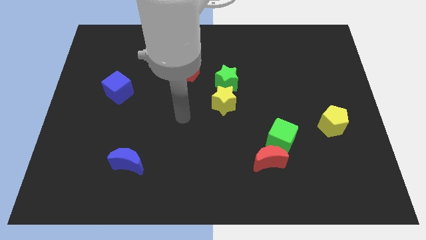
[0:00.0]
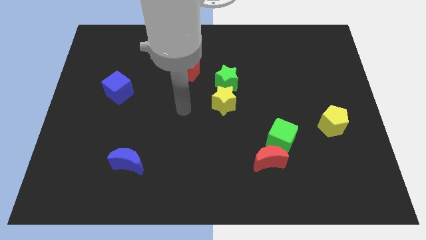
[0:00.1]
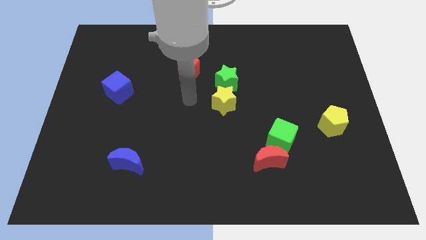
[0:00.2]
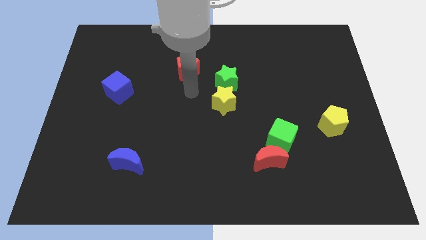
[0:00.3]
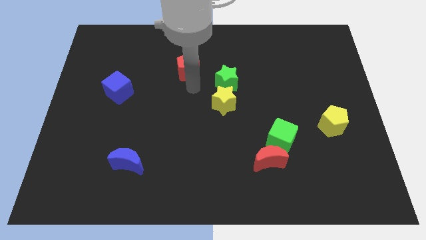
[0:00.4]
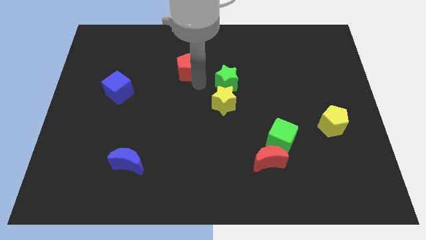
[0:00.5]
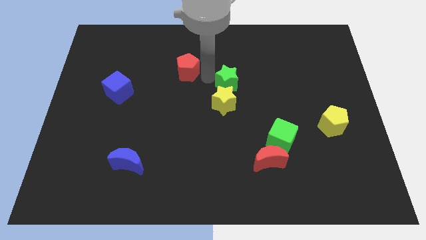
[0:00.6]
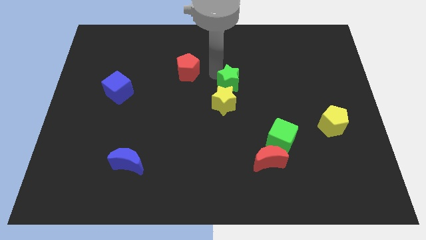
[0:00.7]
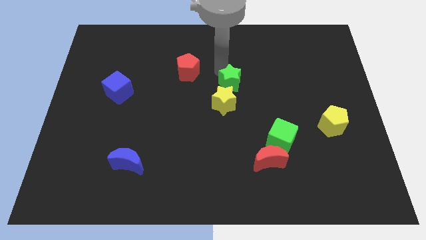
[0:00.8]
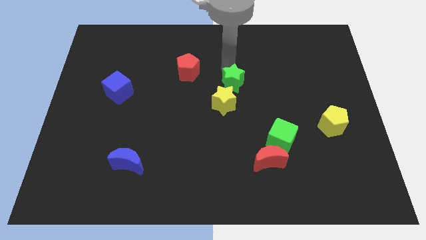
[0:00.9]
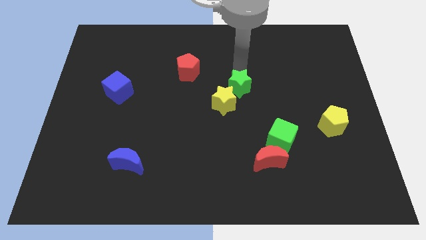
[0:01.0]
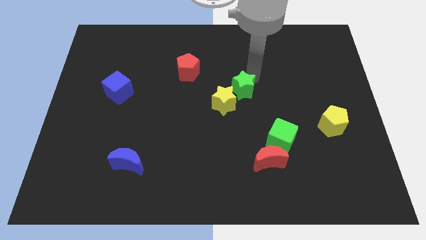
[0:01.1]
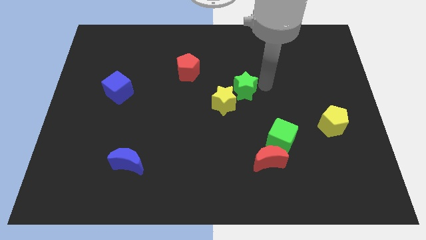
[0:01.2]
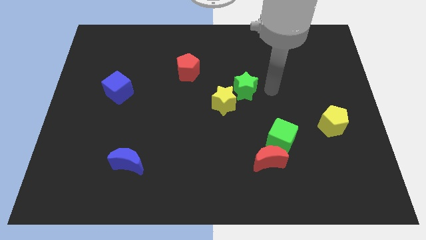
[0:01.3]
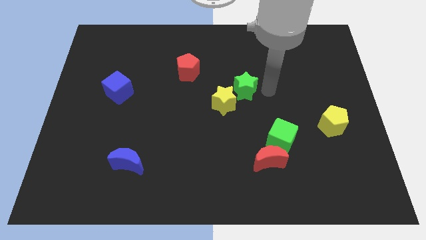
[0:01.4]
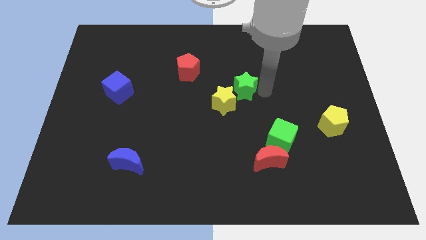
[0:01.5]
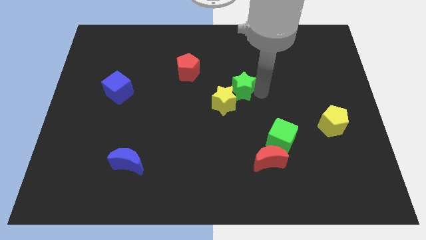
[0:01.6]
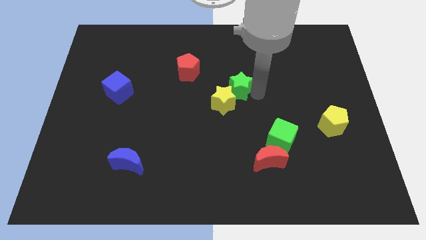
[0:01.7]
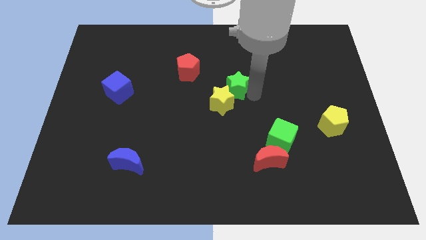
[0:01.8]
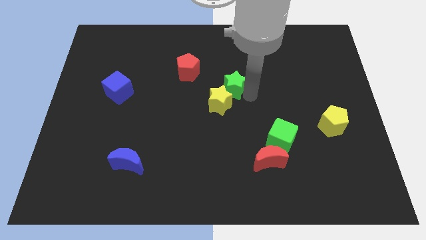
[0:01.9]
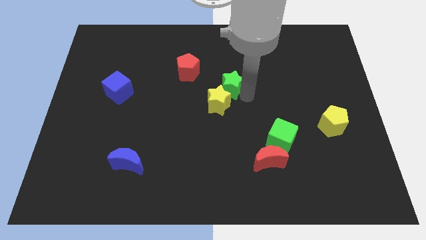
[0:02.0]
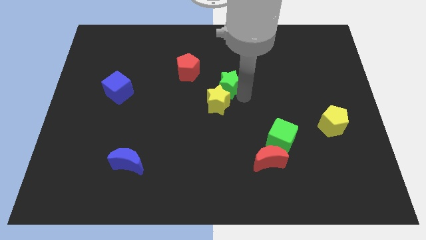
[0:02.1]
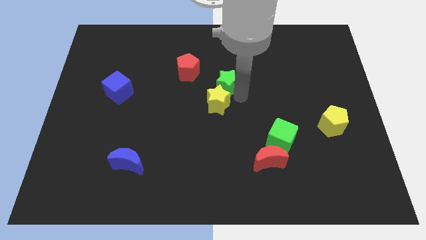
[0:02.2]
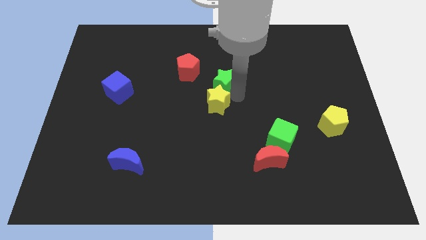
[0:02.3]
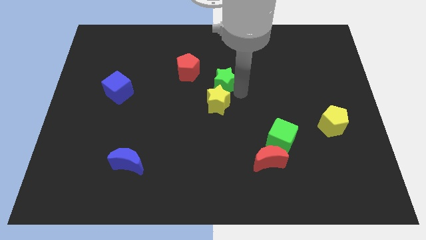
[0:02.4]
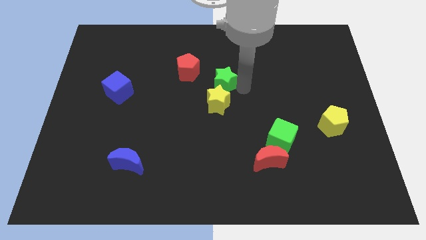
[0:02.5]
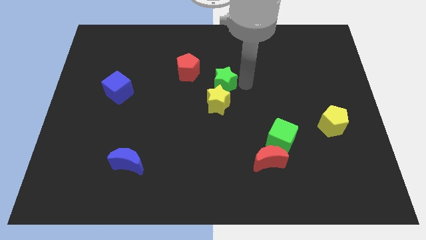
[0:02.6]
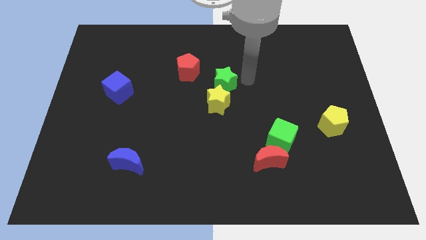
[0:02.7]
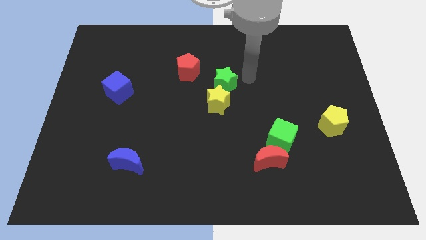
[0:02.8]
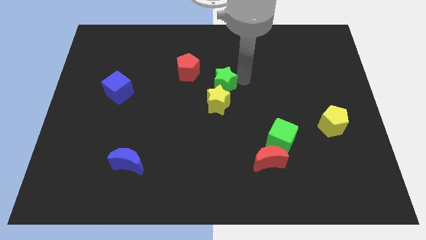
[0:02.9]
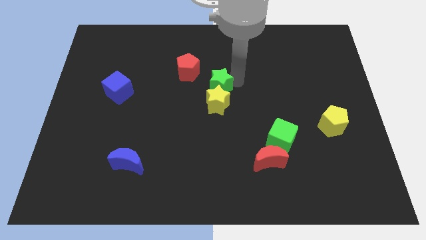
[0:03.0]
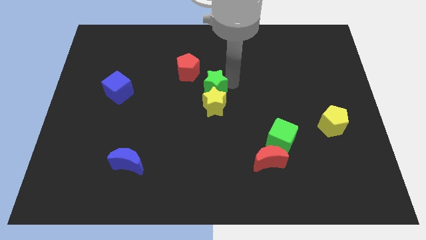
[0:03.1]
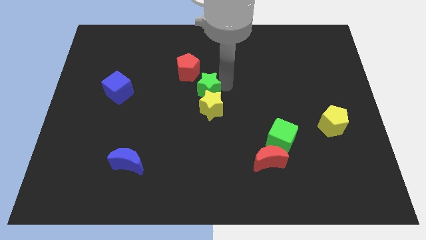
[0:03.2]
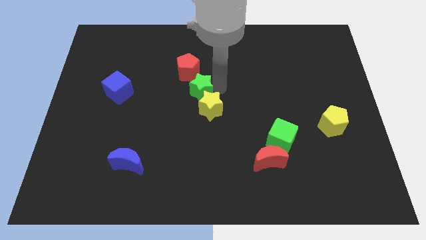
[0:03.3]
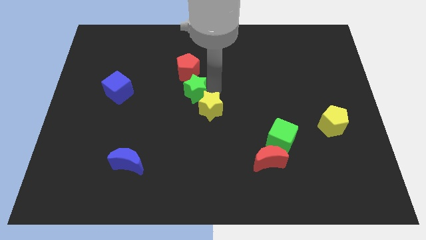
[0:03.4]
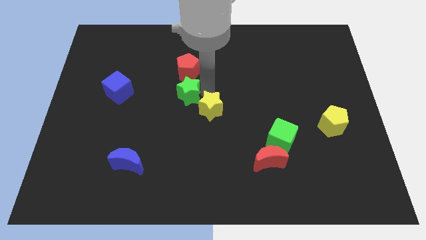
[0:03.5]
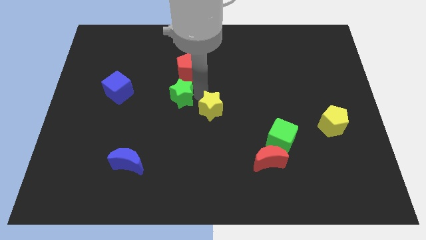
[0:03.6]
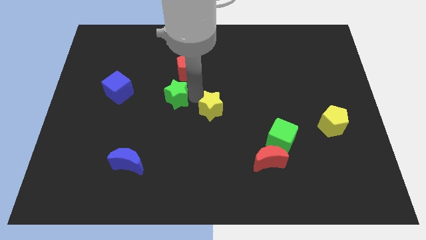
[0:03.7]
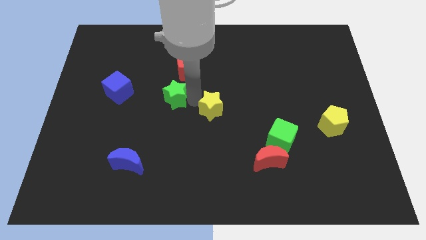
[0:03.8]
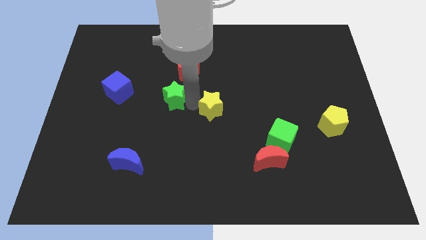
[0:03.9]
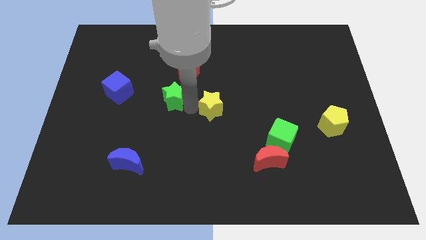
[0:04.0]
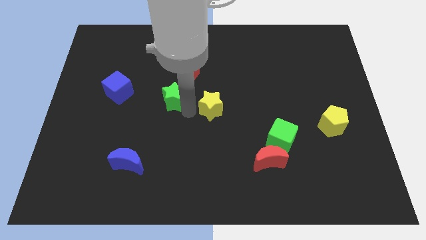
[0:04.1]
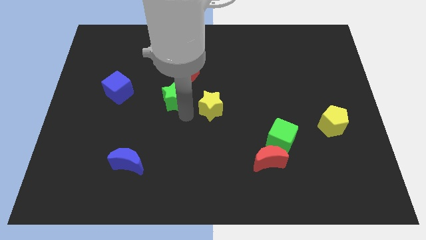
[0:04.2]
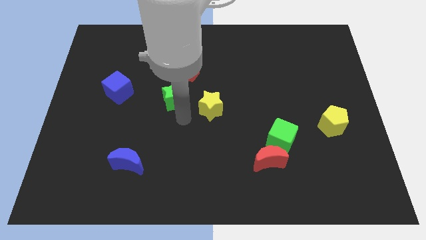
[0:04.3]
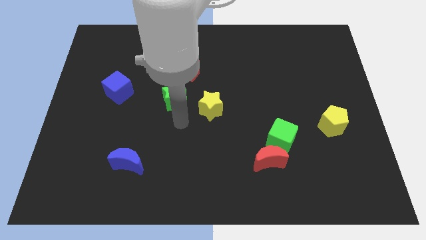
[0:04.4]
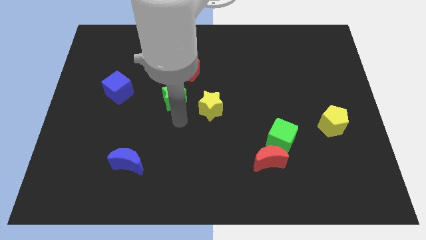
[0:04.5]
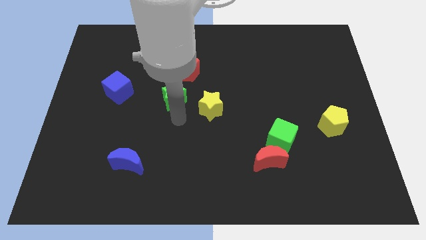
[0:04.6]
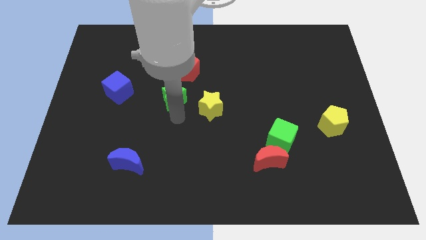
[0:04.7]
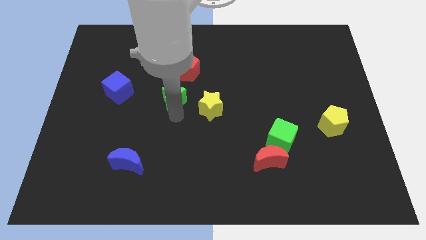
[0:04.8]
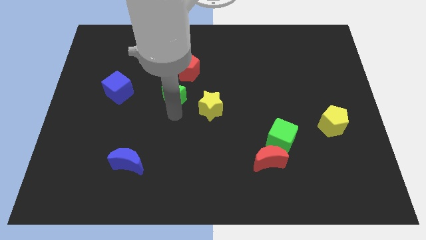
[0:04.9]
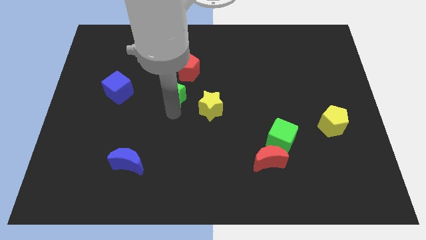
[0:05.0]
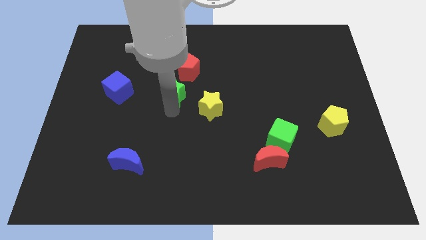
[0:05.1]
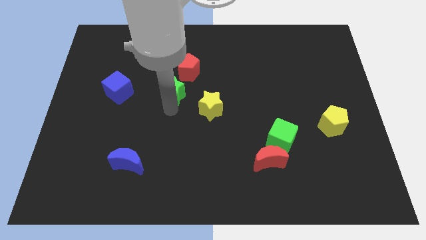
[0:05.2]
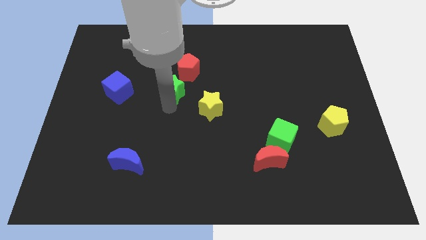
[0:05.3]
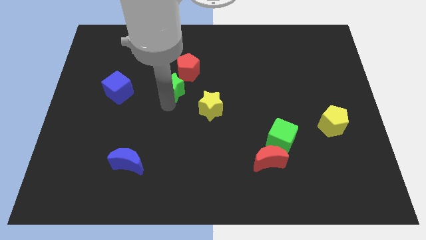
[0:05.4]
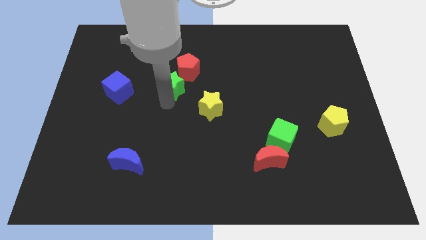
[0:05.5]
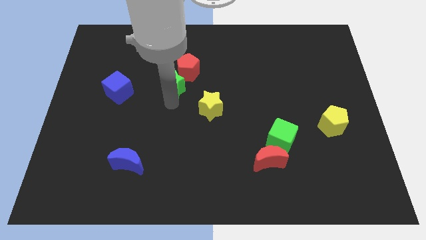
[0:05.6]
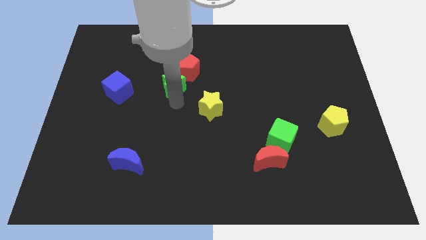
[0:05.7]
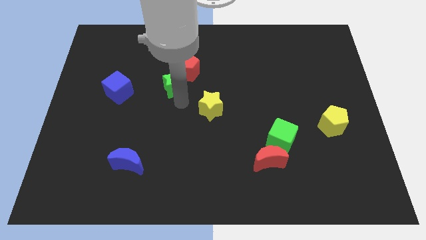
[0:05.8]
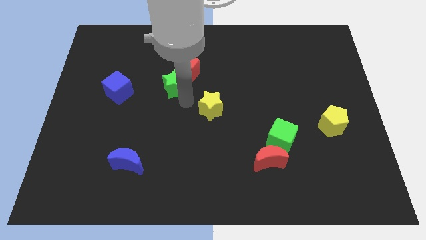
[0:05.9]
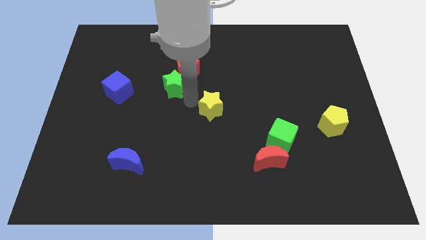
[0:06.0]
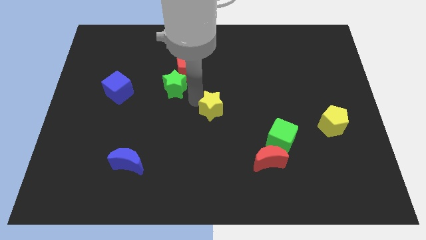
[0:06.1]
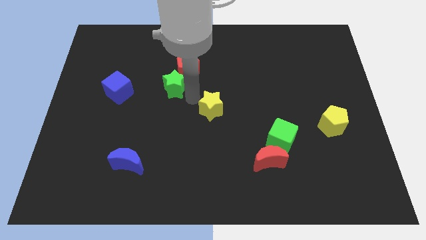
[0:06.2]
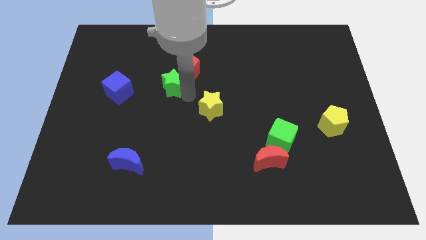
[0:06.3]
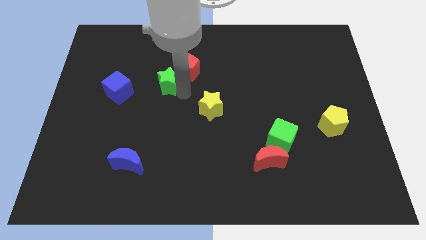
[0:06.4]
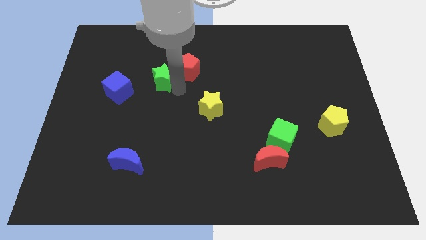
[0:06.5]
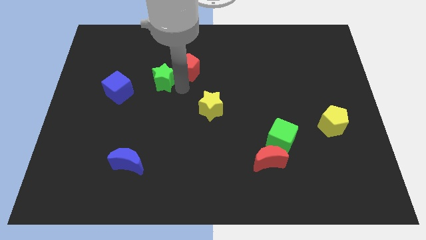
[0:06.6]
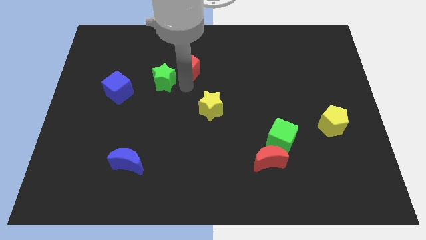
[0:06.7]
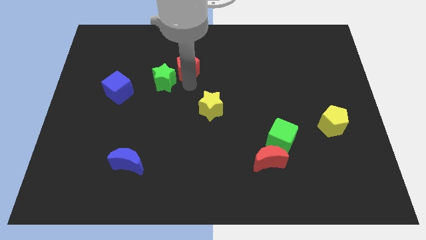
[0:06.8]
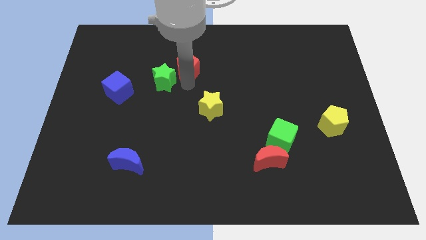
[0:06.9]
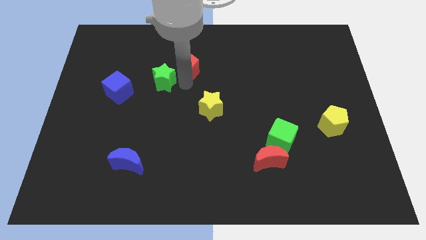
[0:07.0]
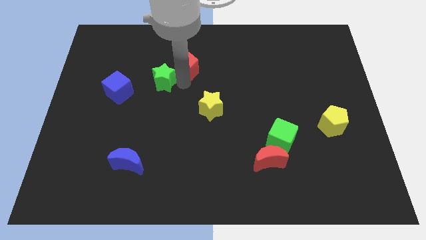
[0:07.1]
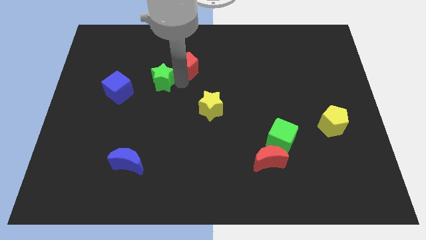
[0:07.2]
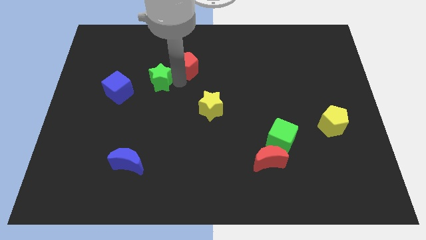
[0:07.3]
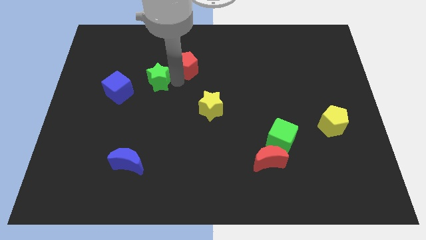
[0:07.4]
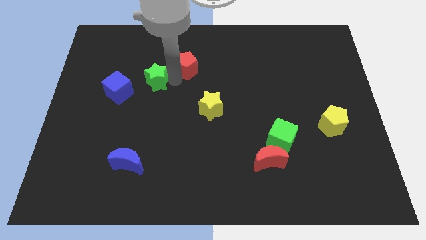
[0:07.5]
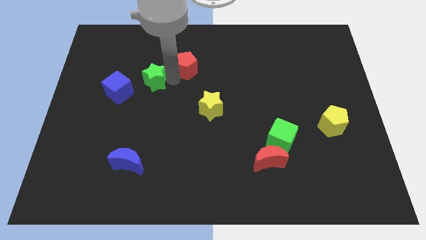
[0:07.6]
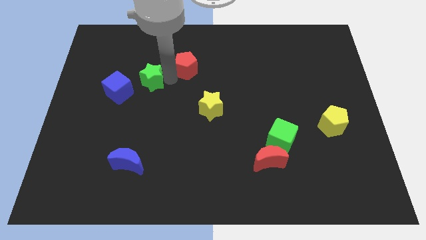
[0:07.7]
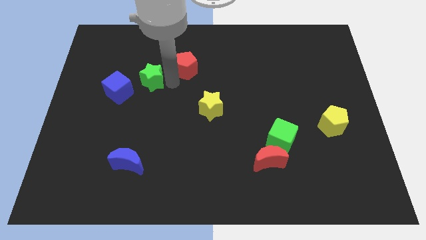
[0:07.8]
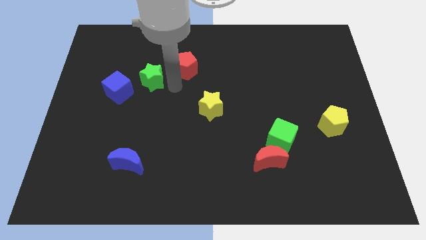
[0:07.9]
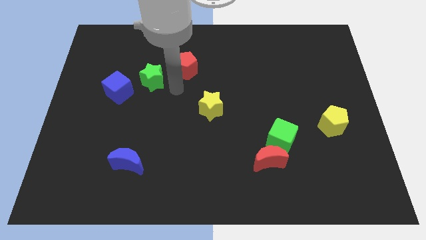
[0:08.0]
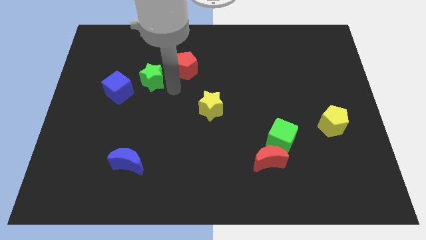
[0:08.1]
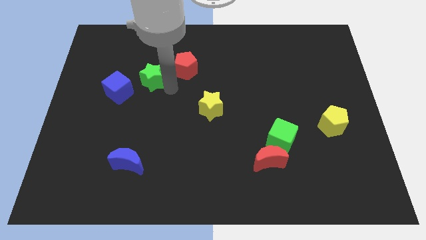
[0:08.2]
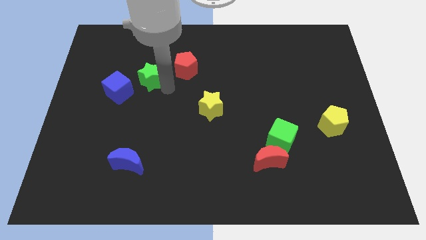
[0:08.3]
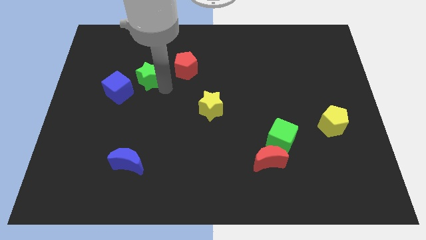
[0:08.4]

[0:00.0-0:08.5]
move the green star left
